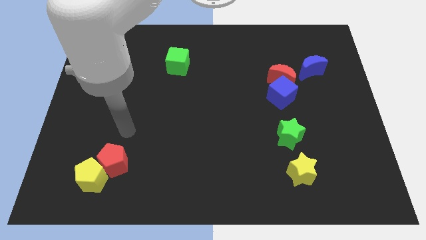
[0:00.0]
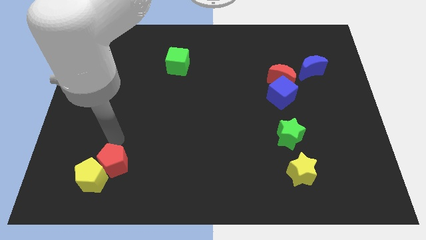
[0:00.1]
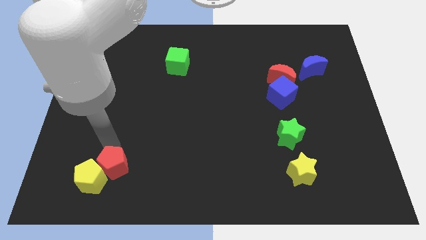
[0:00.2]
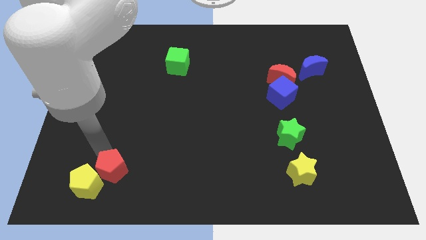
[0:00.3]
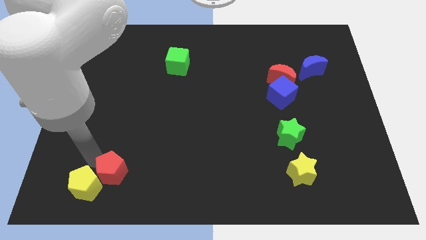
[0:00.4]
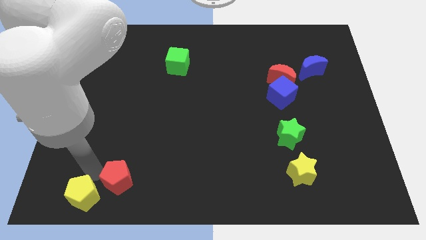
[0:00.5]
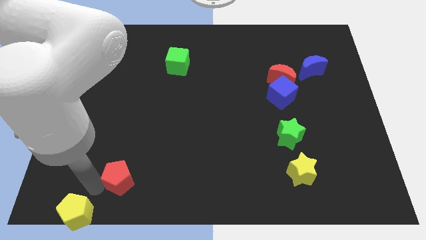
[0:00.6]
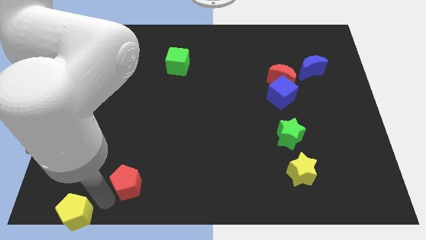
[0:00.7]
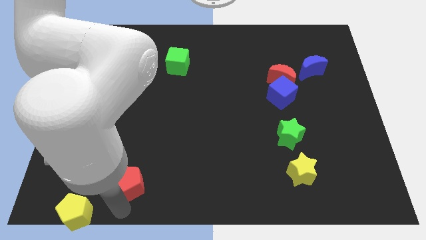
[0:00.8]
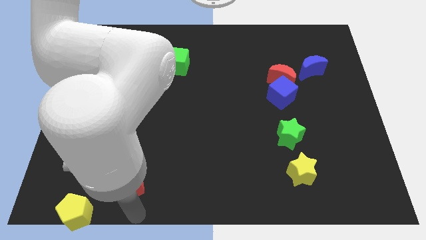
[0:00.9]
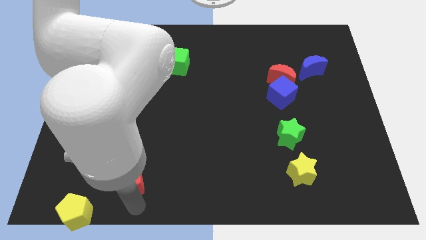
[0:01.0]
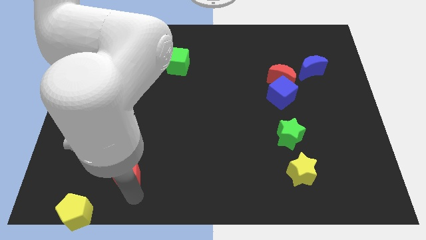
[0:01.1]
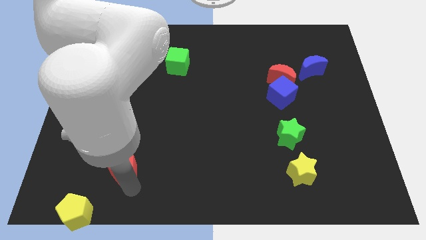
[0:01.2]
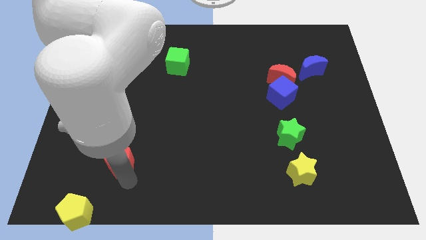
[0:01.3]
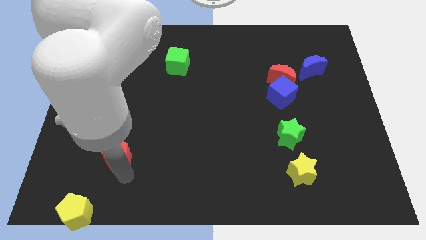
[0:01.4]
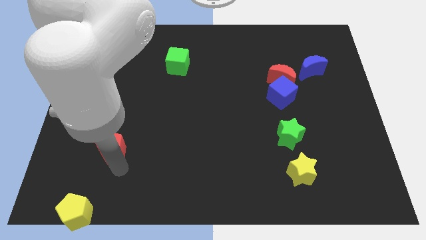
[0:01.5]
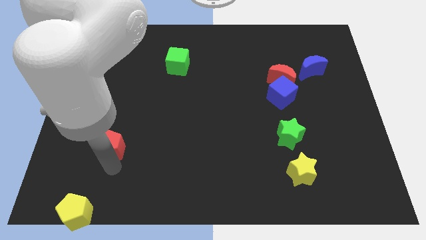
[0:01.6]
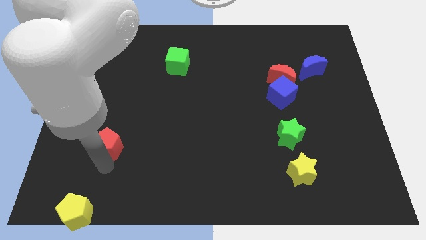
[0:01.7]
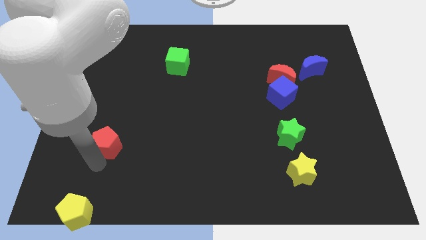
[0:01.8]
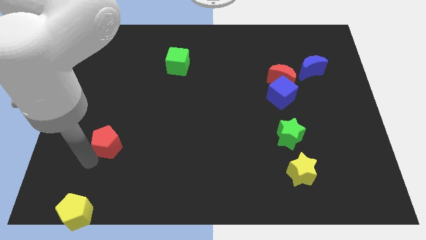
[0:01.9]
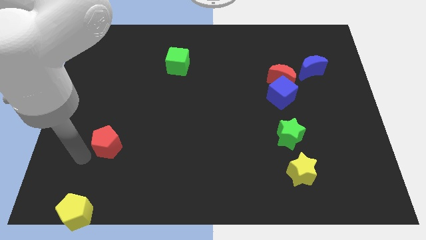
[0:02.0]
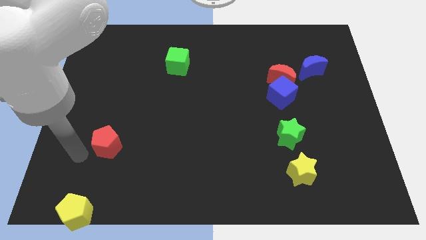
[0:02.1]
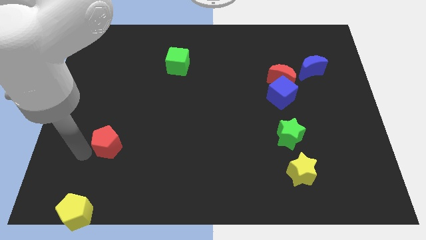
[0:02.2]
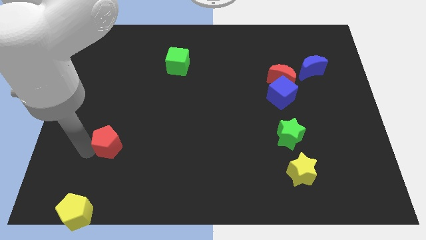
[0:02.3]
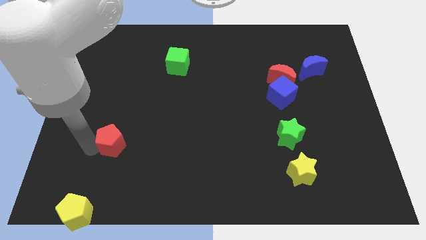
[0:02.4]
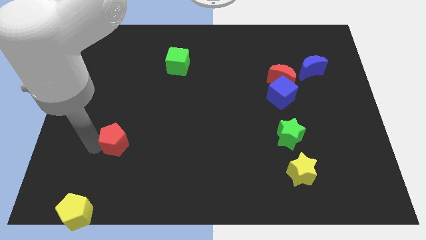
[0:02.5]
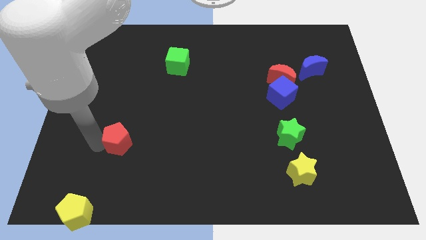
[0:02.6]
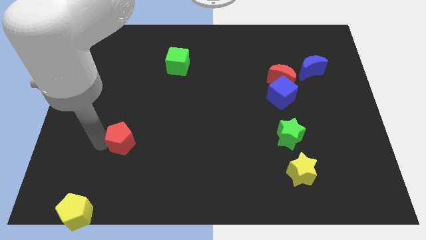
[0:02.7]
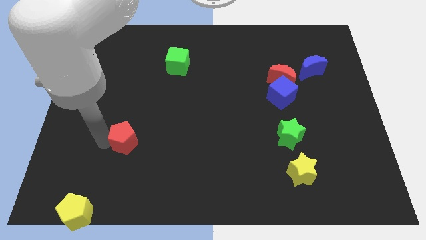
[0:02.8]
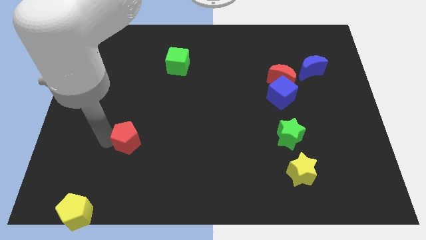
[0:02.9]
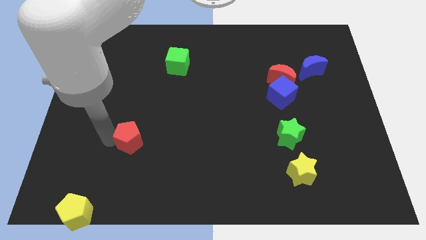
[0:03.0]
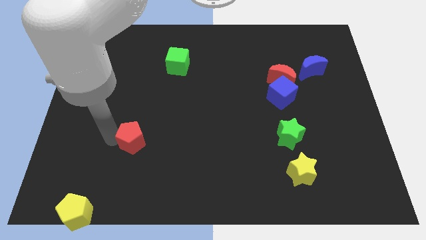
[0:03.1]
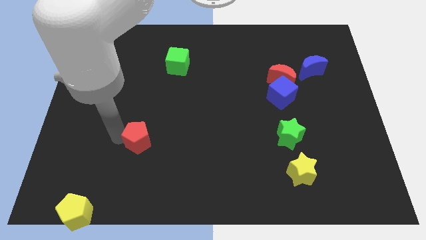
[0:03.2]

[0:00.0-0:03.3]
slide the red pentagon a little bit diagonally up and to the right

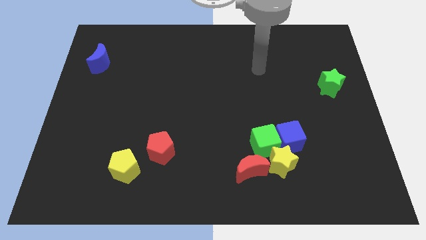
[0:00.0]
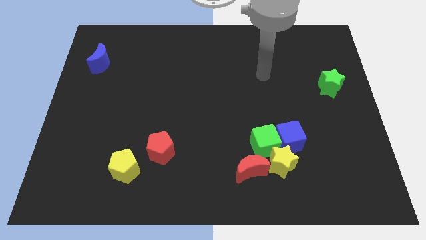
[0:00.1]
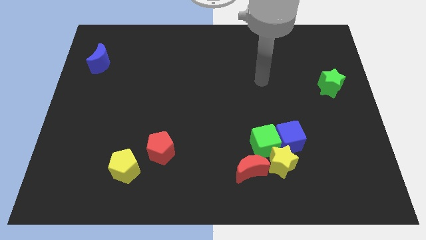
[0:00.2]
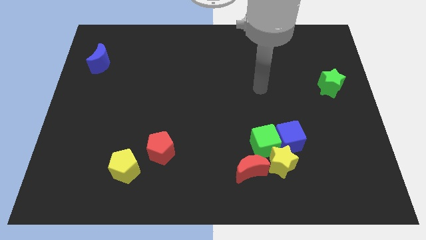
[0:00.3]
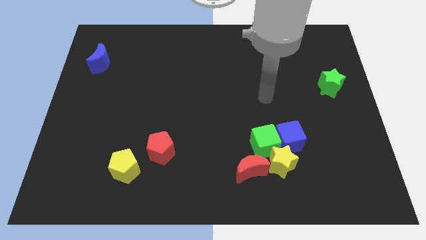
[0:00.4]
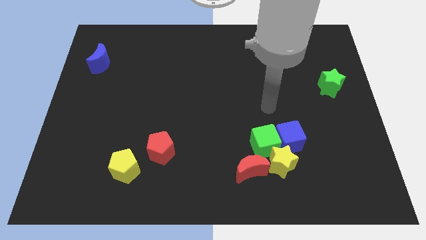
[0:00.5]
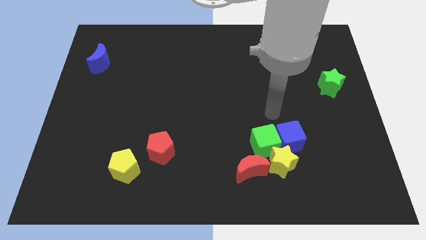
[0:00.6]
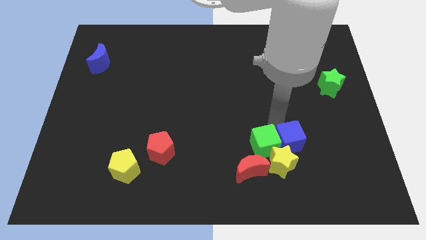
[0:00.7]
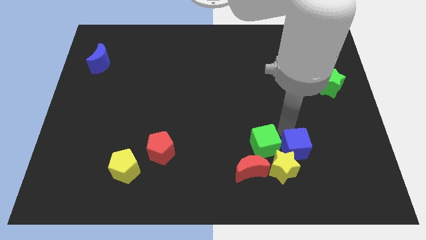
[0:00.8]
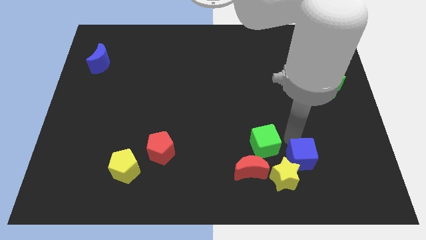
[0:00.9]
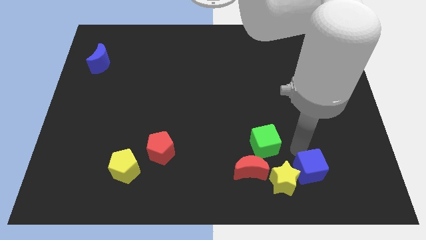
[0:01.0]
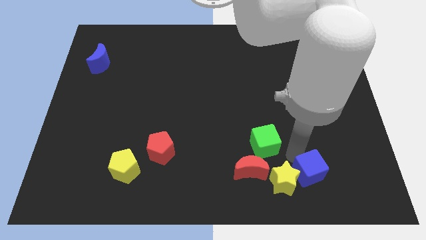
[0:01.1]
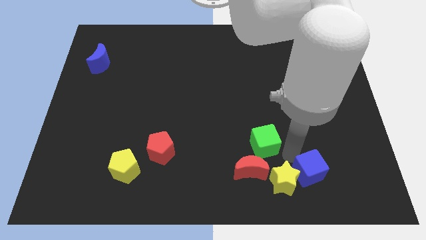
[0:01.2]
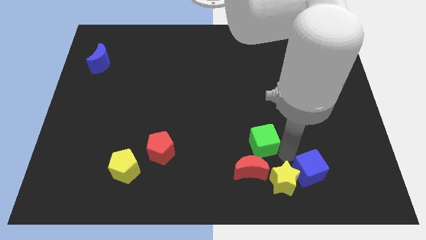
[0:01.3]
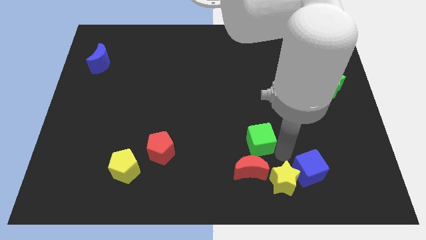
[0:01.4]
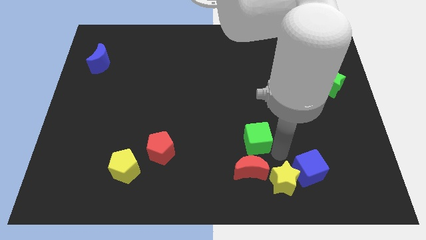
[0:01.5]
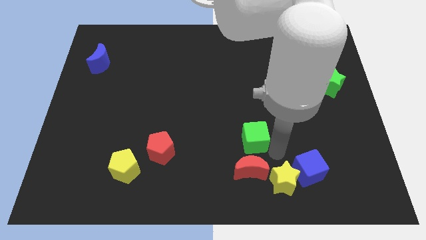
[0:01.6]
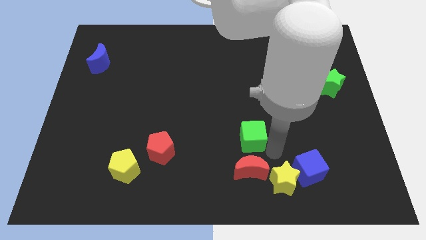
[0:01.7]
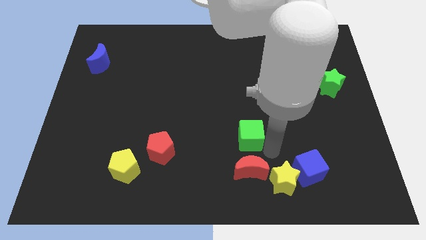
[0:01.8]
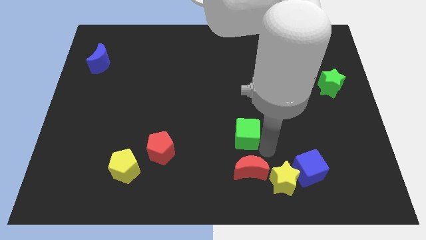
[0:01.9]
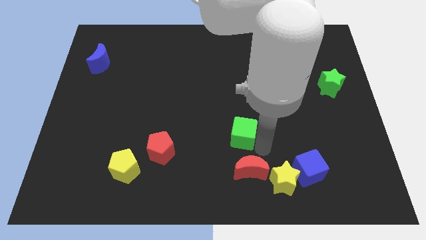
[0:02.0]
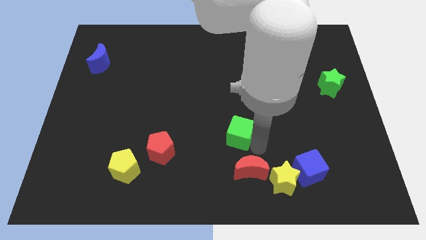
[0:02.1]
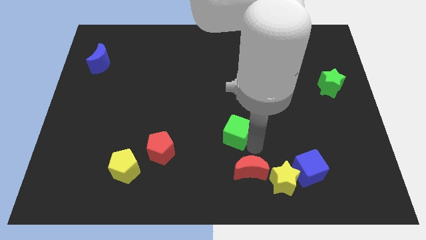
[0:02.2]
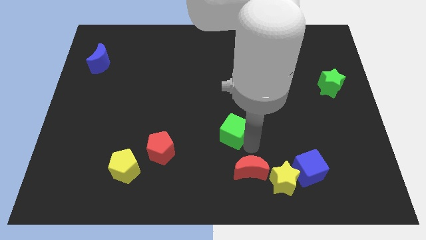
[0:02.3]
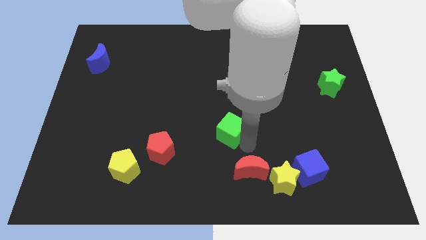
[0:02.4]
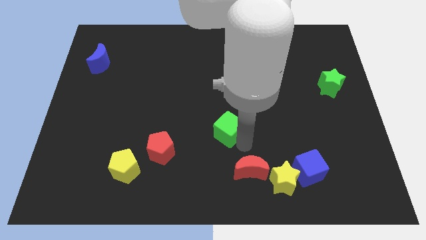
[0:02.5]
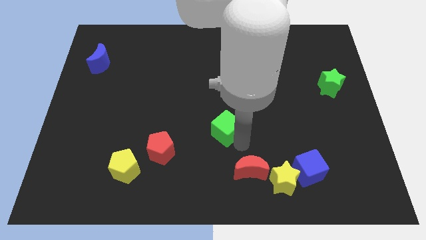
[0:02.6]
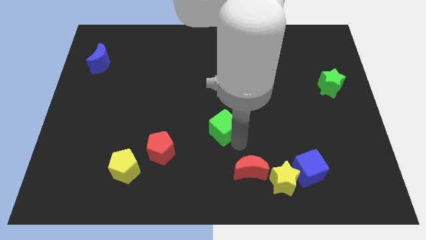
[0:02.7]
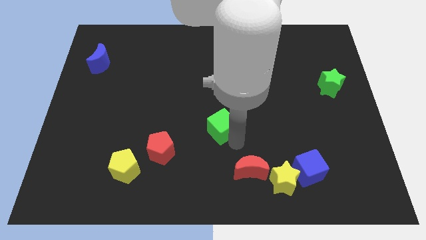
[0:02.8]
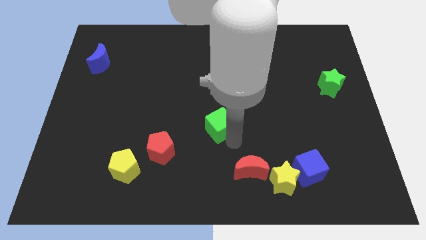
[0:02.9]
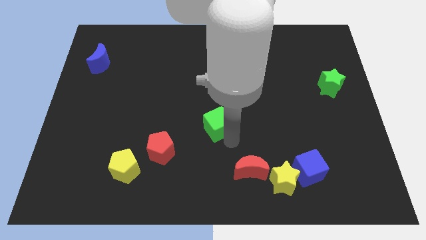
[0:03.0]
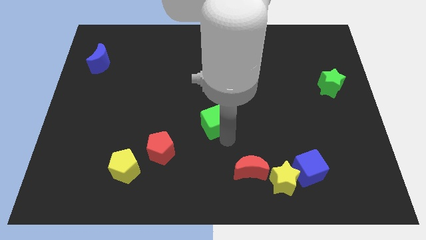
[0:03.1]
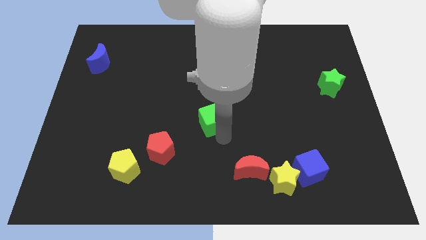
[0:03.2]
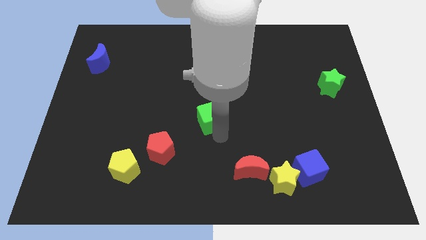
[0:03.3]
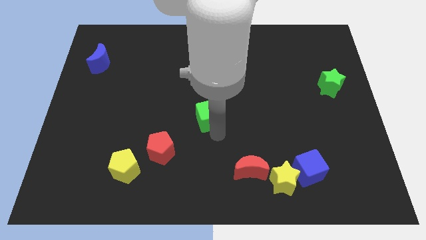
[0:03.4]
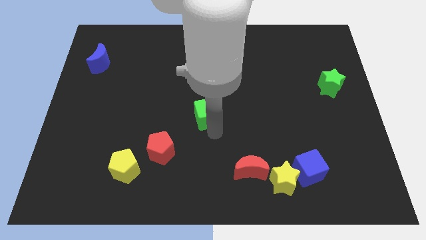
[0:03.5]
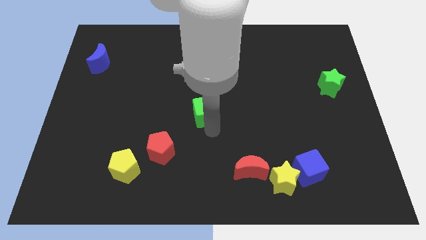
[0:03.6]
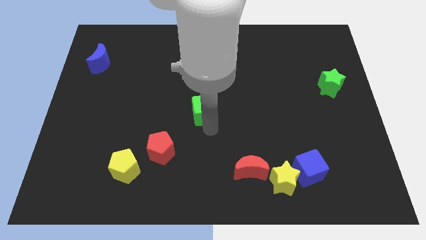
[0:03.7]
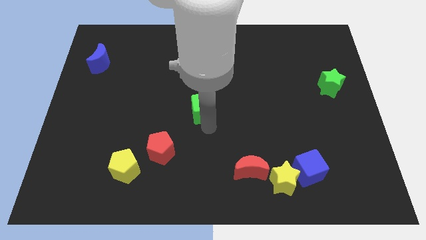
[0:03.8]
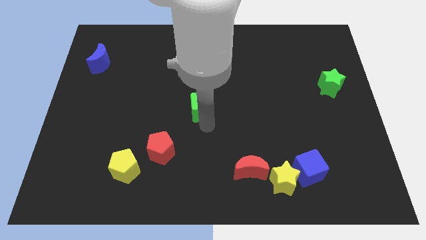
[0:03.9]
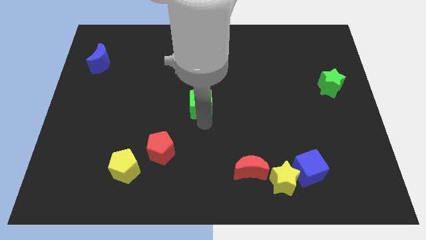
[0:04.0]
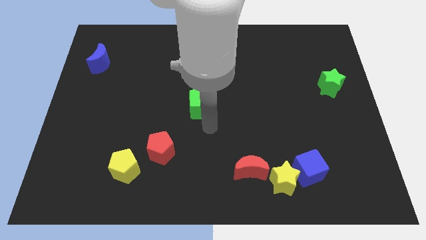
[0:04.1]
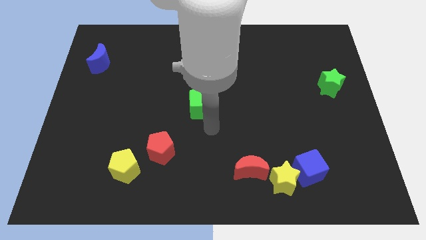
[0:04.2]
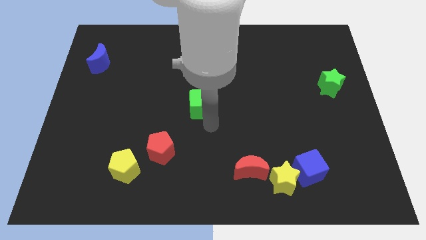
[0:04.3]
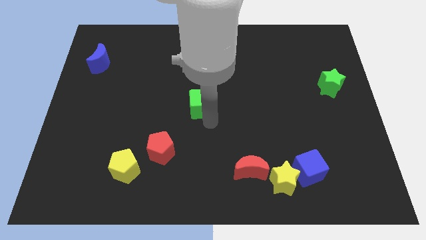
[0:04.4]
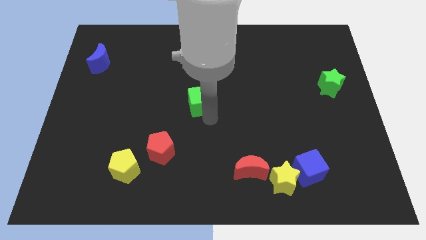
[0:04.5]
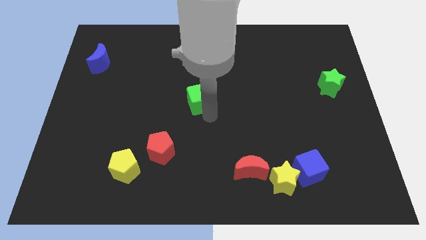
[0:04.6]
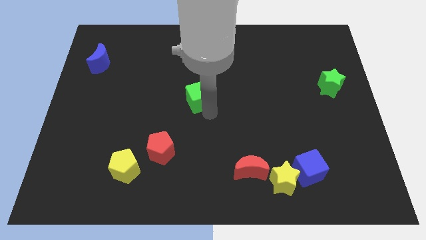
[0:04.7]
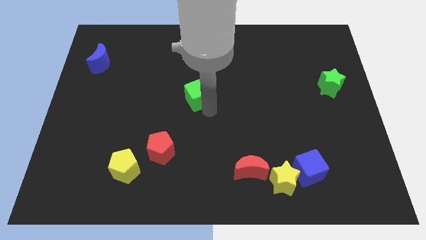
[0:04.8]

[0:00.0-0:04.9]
slide the green cube diagonally up and to the left

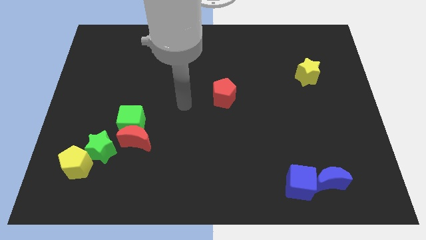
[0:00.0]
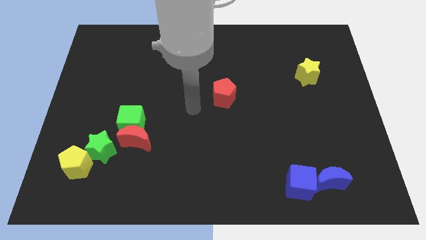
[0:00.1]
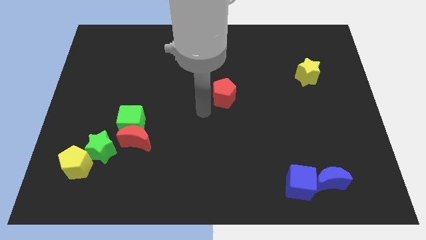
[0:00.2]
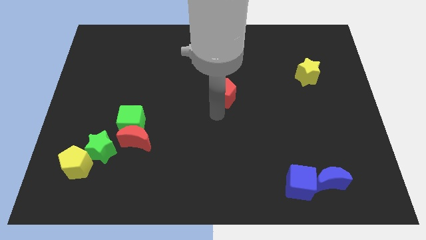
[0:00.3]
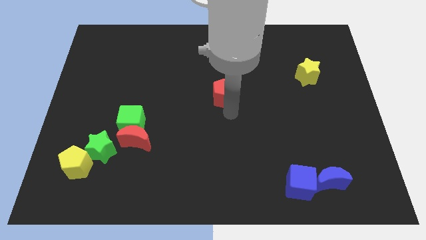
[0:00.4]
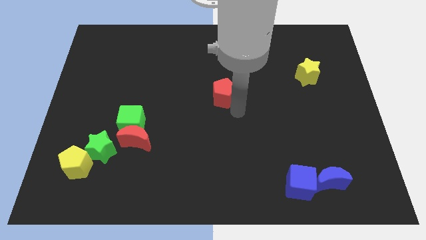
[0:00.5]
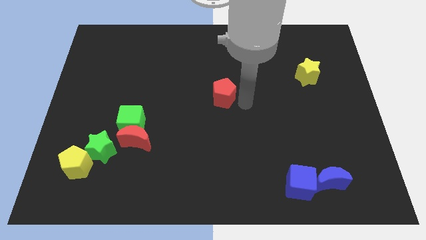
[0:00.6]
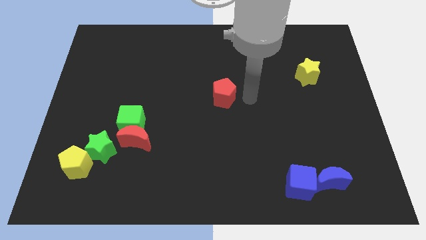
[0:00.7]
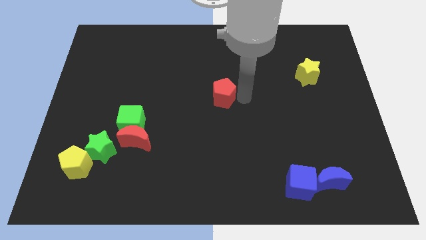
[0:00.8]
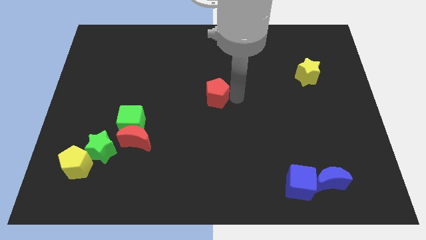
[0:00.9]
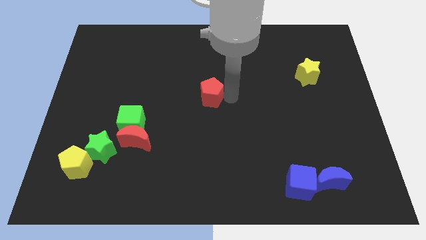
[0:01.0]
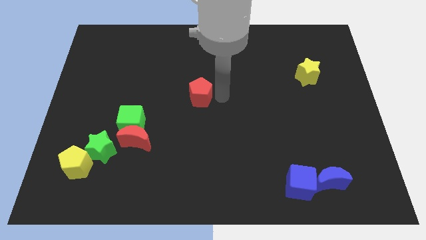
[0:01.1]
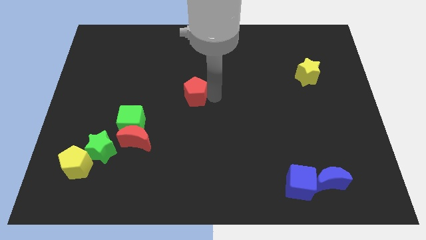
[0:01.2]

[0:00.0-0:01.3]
slide the red pentagon a bit left
